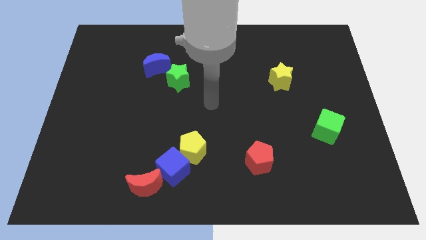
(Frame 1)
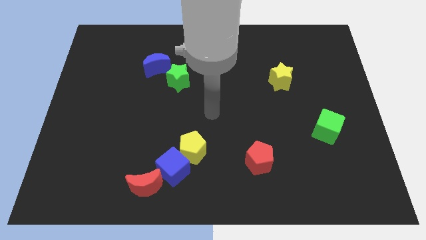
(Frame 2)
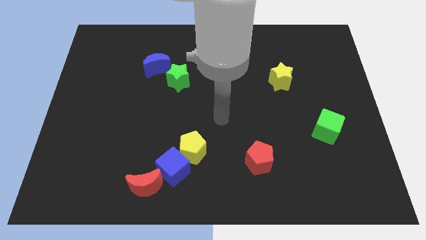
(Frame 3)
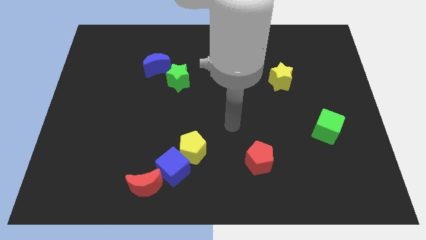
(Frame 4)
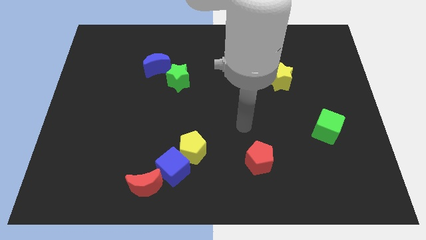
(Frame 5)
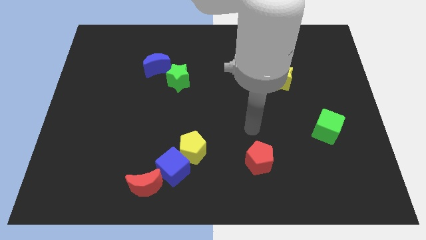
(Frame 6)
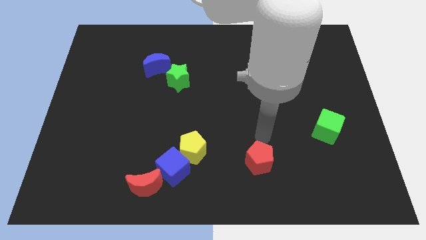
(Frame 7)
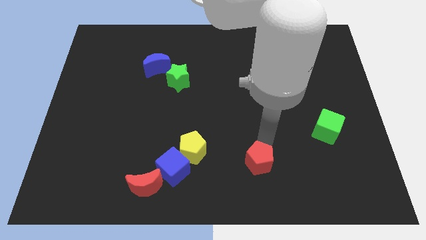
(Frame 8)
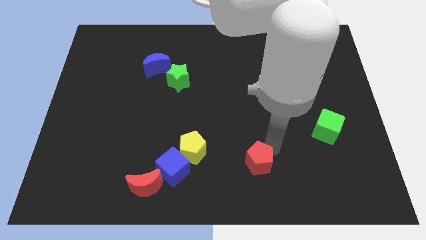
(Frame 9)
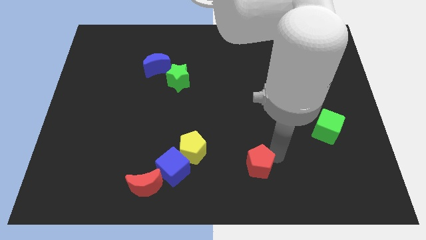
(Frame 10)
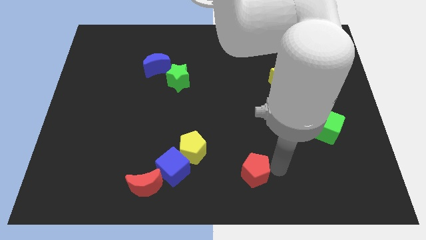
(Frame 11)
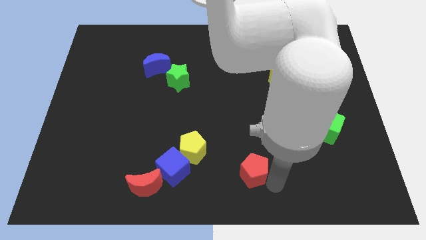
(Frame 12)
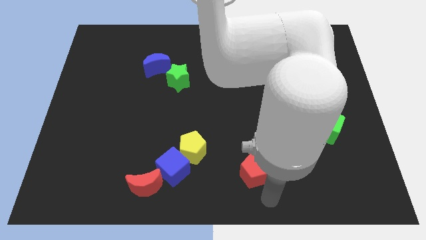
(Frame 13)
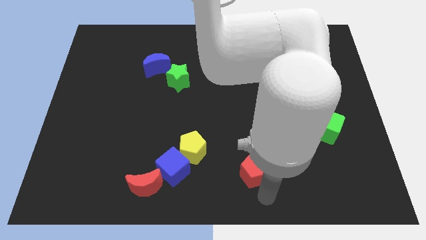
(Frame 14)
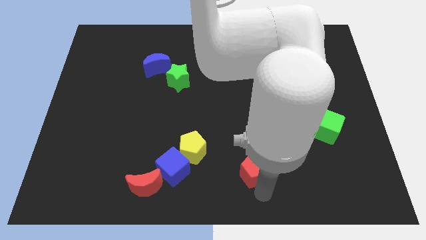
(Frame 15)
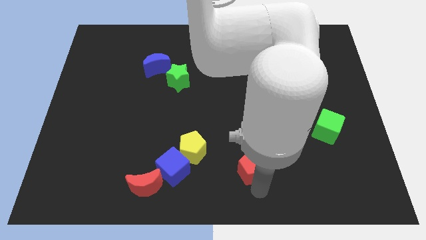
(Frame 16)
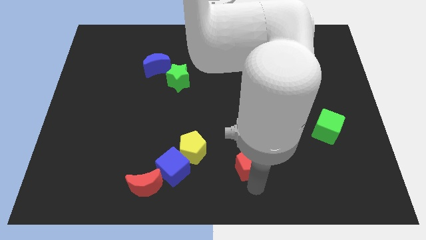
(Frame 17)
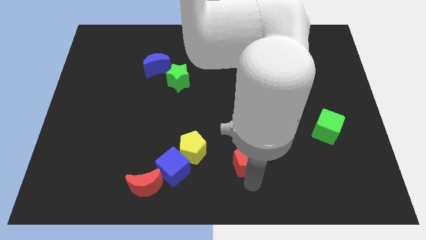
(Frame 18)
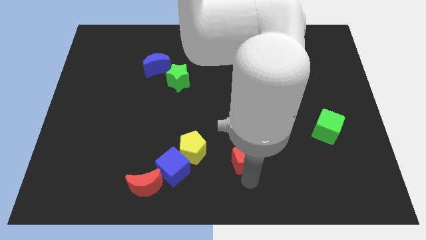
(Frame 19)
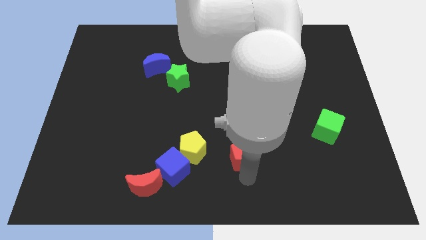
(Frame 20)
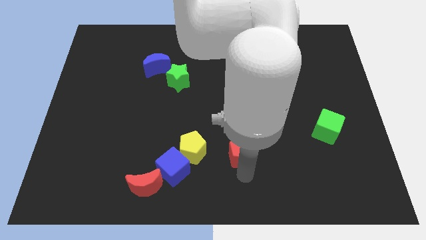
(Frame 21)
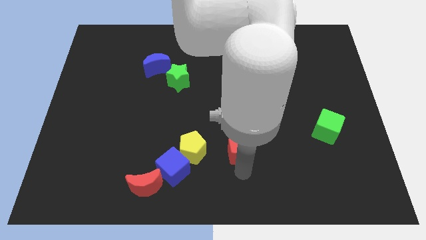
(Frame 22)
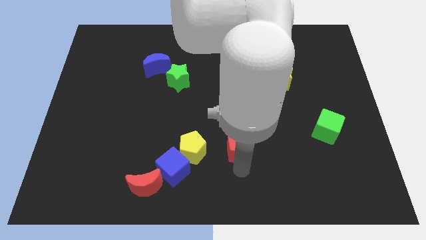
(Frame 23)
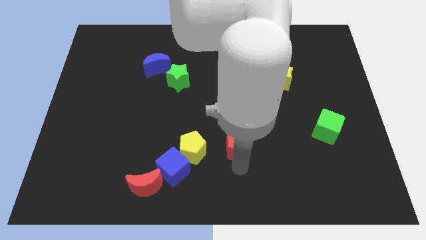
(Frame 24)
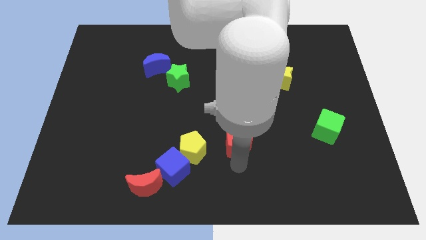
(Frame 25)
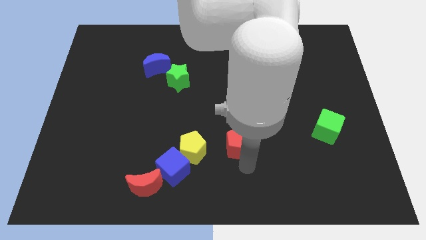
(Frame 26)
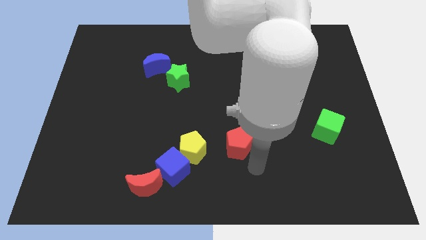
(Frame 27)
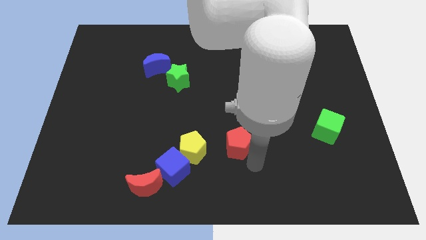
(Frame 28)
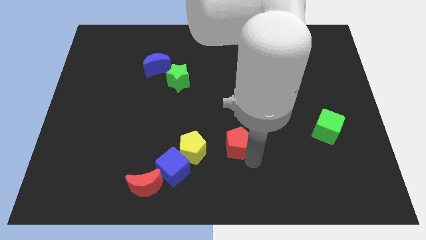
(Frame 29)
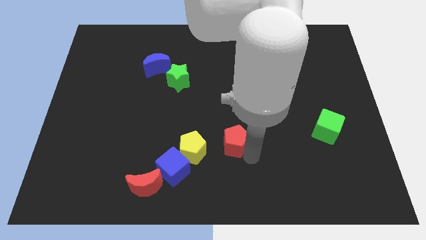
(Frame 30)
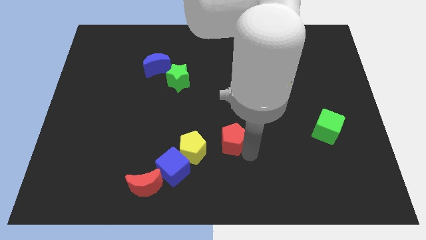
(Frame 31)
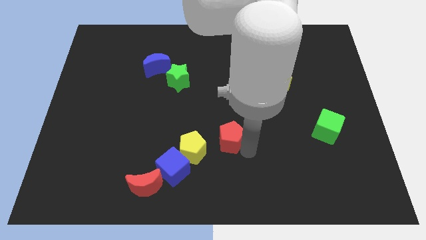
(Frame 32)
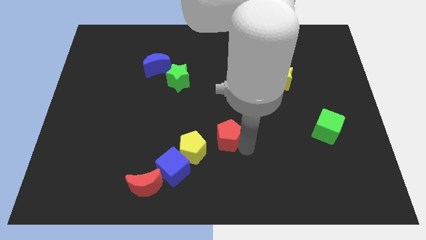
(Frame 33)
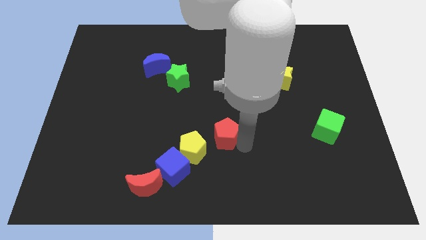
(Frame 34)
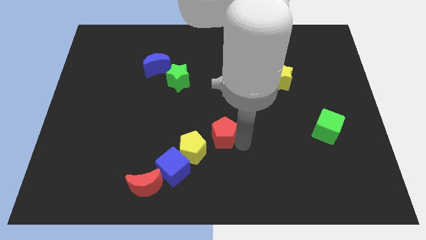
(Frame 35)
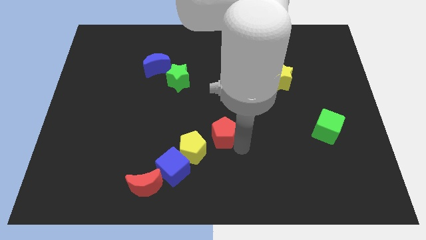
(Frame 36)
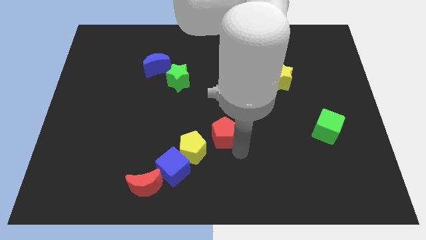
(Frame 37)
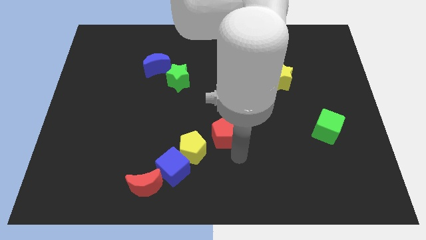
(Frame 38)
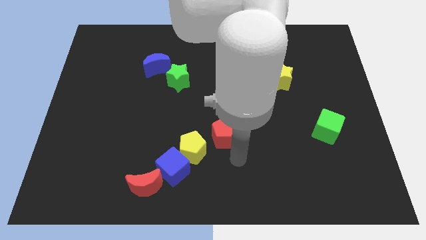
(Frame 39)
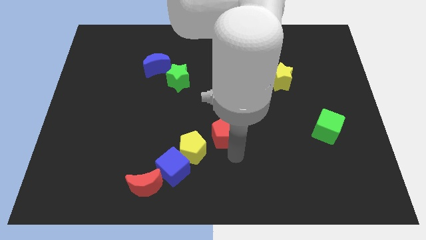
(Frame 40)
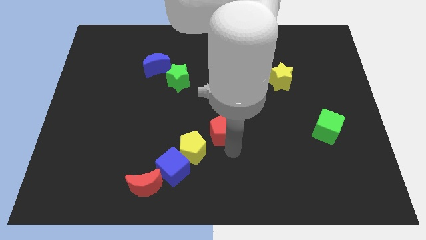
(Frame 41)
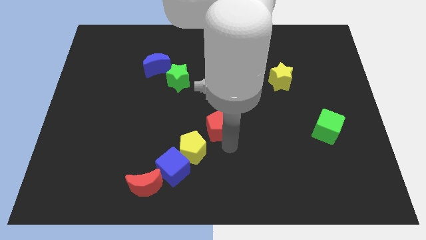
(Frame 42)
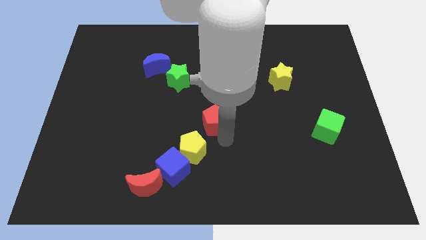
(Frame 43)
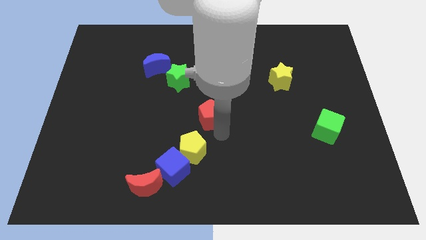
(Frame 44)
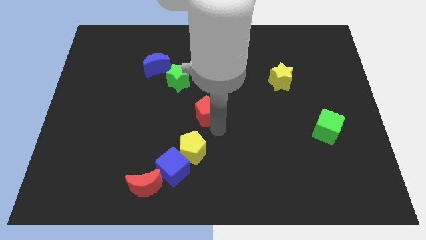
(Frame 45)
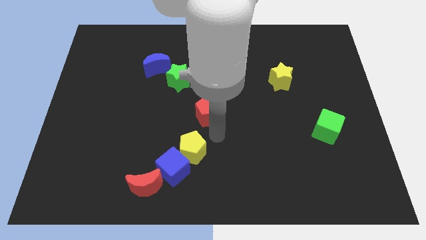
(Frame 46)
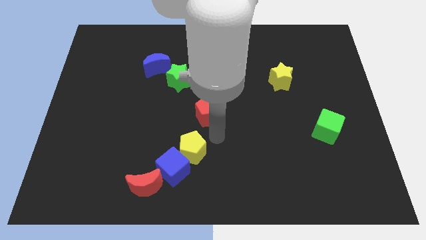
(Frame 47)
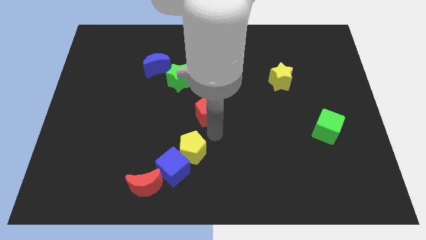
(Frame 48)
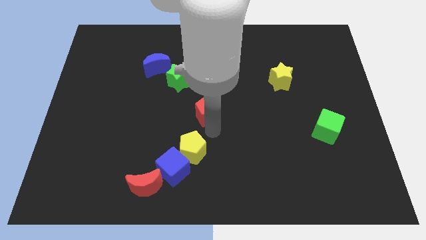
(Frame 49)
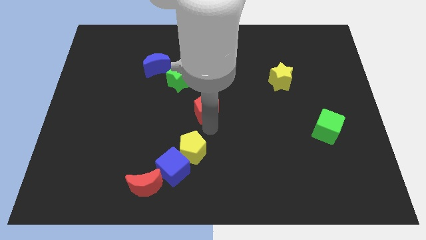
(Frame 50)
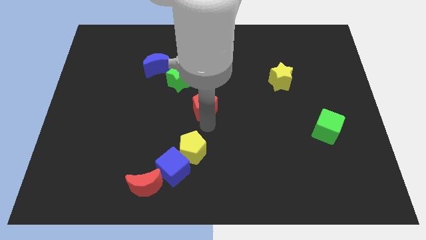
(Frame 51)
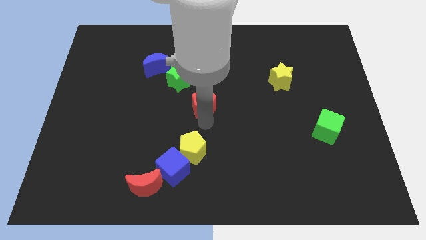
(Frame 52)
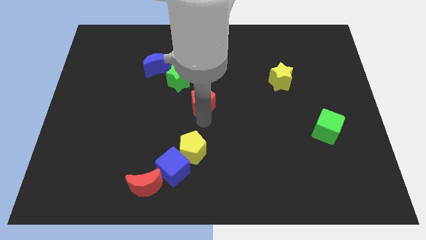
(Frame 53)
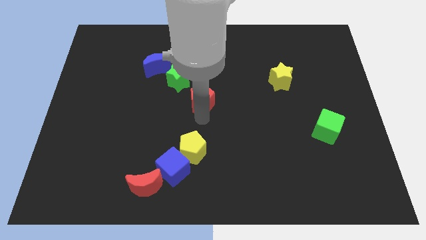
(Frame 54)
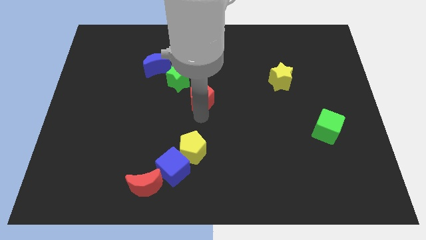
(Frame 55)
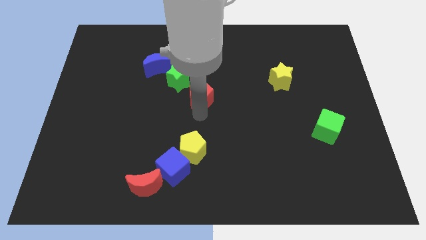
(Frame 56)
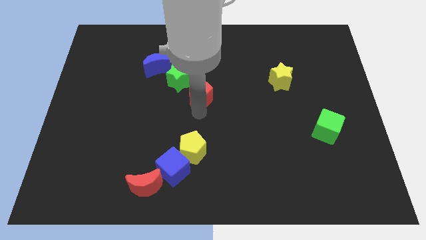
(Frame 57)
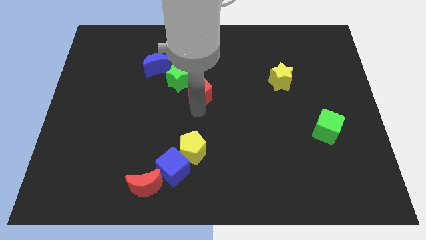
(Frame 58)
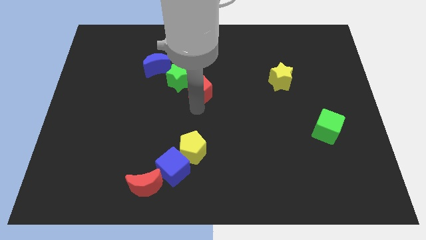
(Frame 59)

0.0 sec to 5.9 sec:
move the red pentagon to the green star

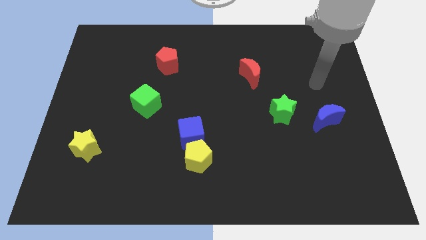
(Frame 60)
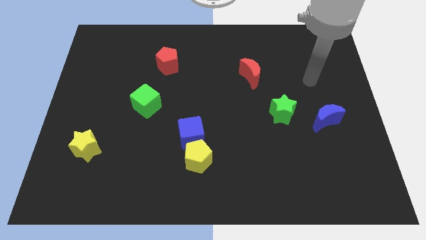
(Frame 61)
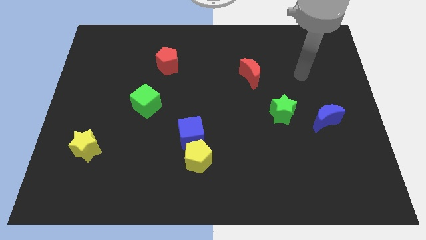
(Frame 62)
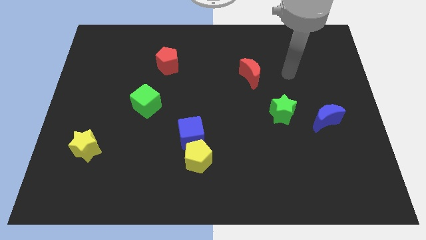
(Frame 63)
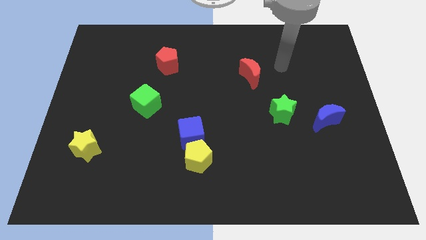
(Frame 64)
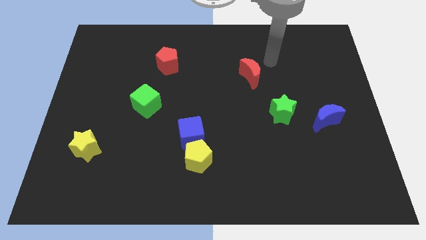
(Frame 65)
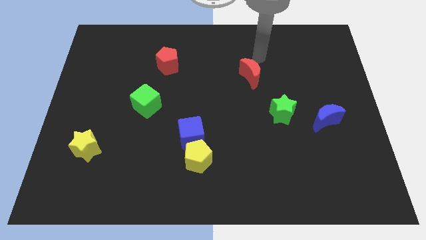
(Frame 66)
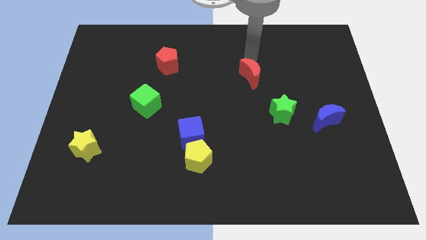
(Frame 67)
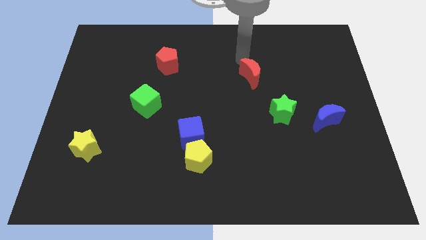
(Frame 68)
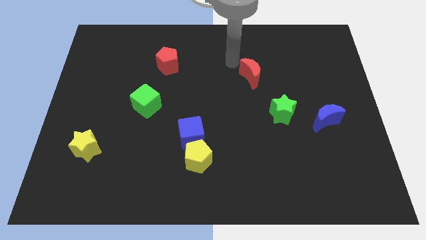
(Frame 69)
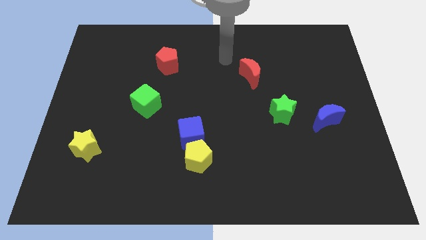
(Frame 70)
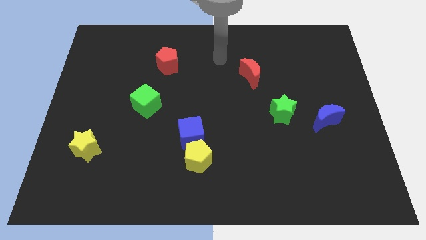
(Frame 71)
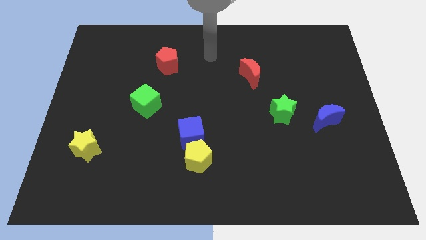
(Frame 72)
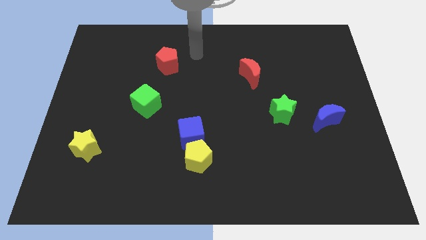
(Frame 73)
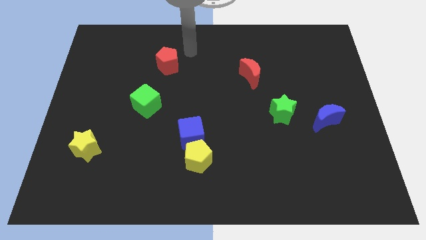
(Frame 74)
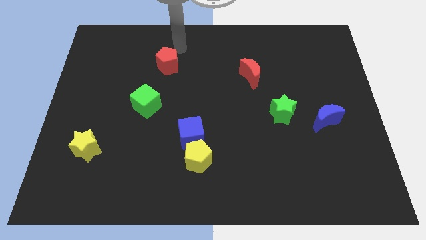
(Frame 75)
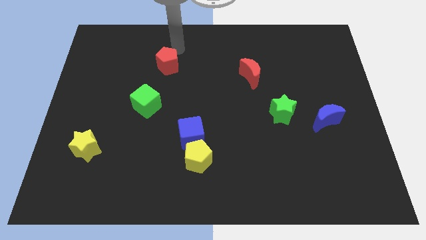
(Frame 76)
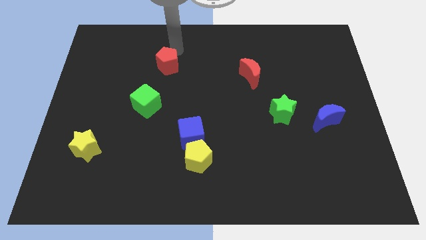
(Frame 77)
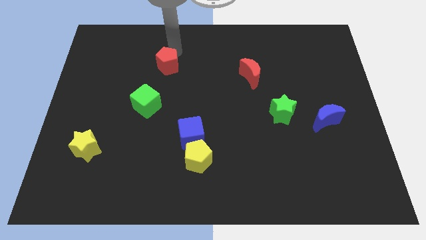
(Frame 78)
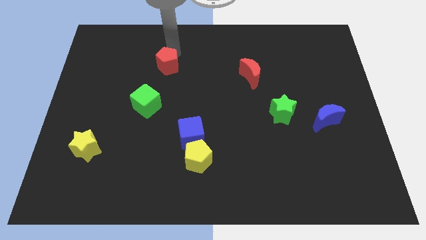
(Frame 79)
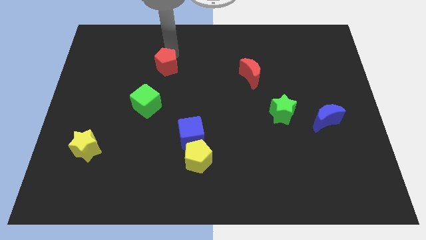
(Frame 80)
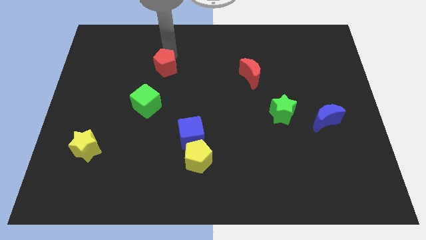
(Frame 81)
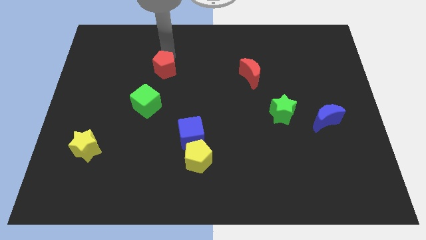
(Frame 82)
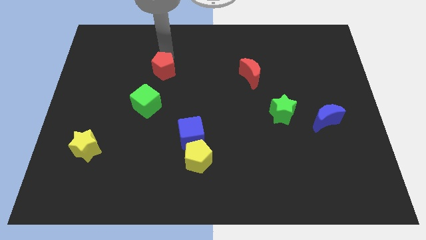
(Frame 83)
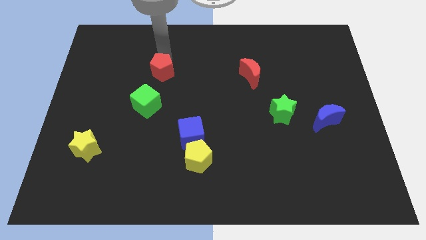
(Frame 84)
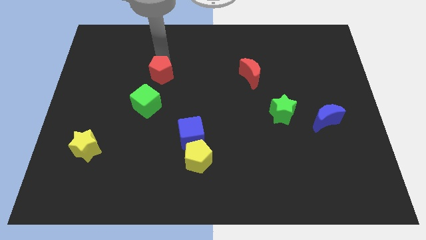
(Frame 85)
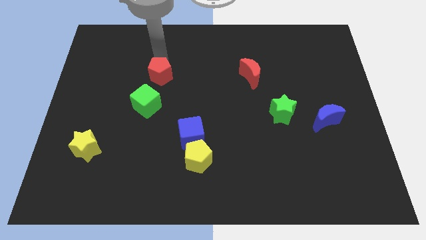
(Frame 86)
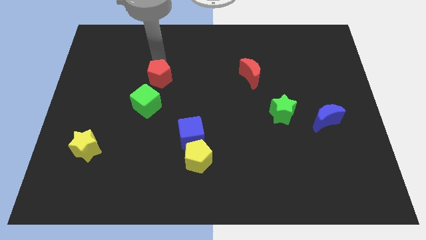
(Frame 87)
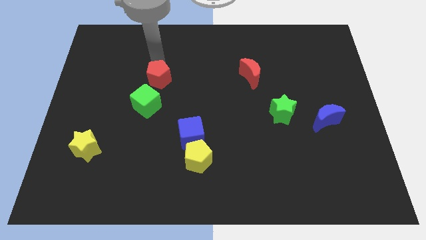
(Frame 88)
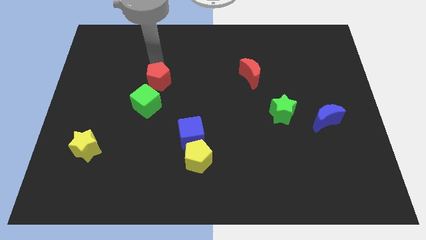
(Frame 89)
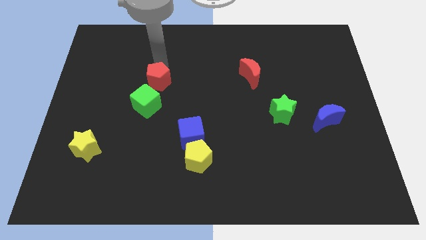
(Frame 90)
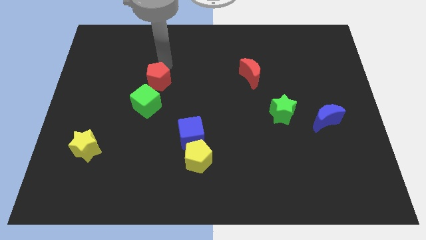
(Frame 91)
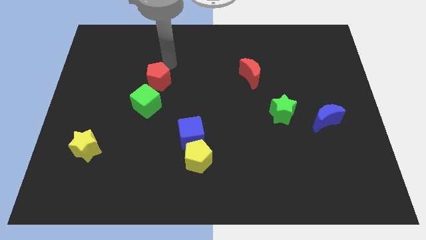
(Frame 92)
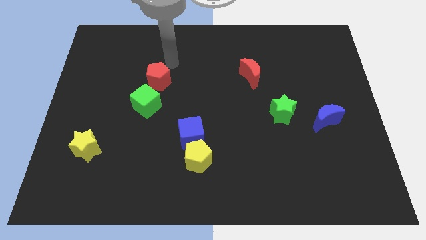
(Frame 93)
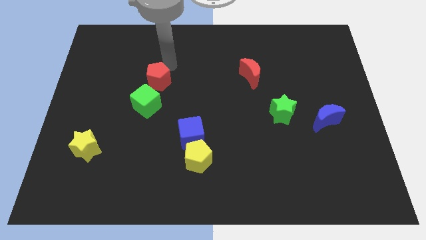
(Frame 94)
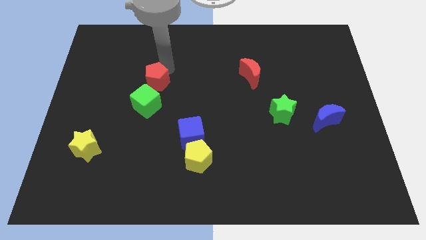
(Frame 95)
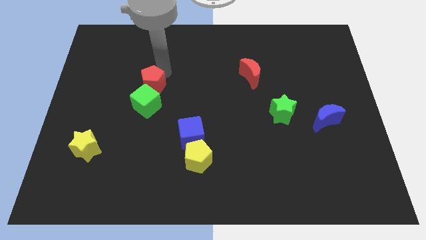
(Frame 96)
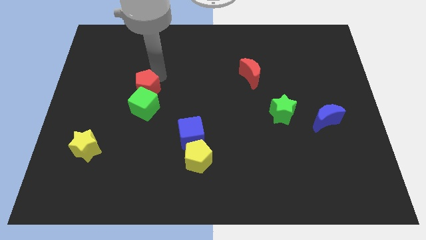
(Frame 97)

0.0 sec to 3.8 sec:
put the red pentagon towards the green cube
